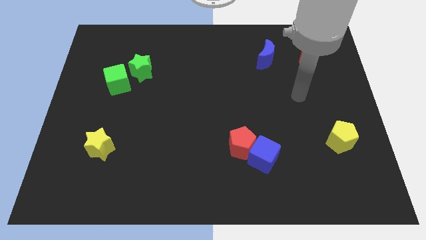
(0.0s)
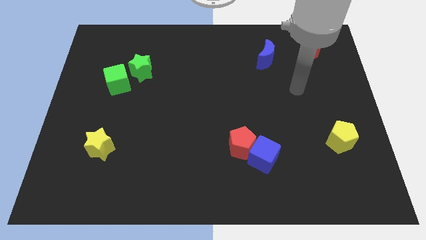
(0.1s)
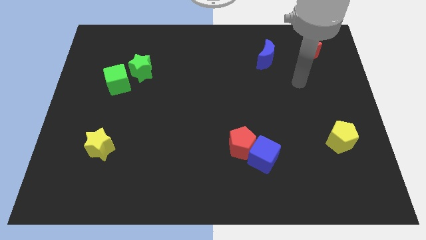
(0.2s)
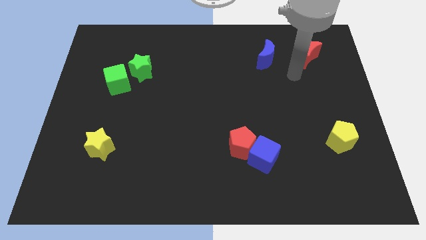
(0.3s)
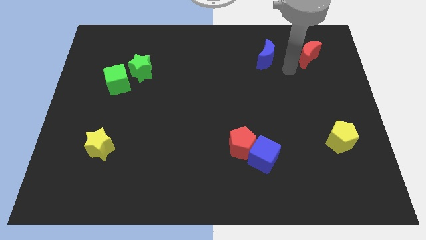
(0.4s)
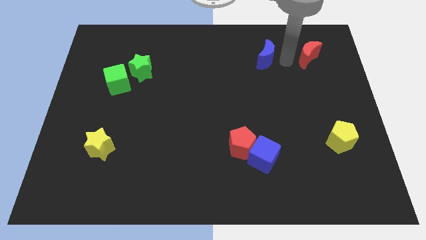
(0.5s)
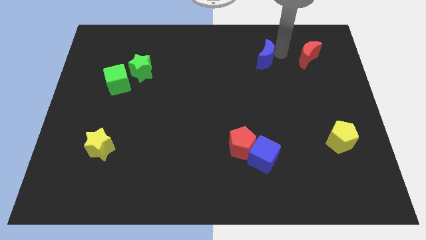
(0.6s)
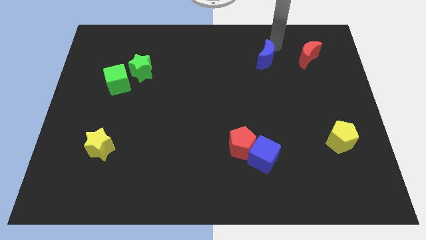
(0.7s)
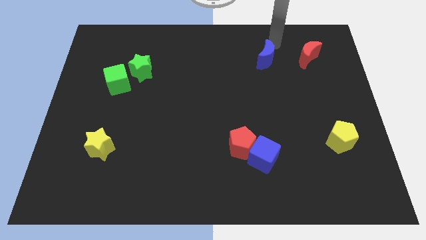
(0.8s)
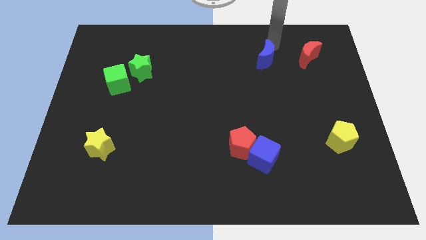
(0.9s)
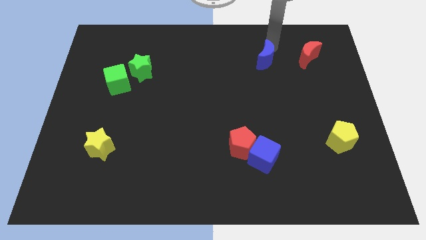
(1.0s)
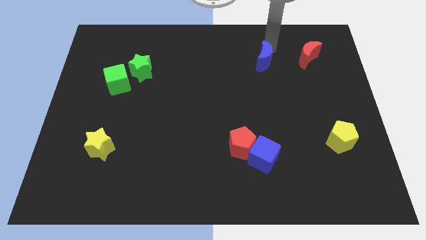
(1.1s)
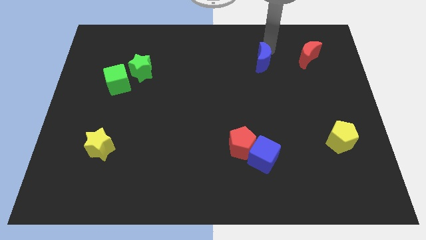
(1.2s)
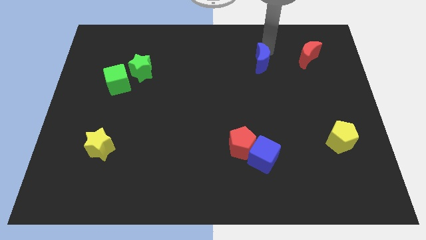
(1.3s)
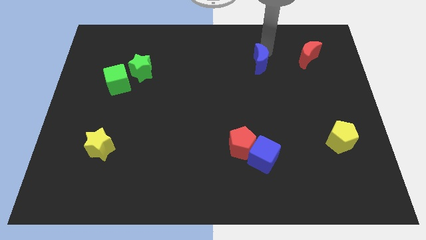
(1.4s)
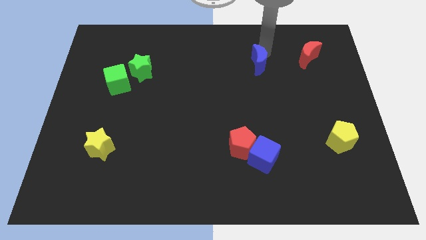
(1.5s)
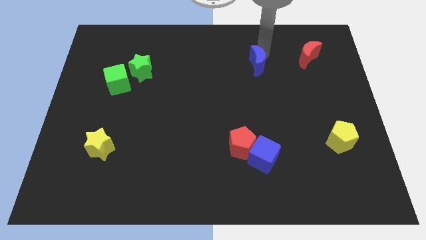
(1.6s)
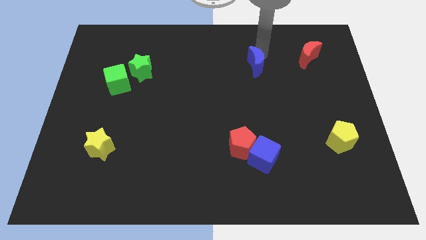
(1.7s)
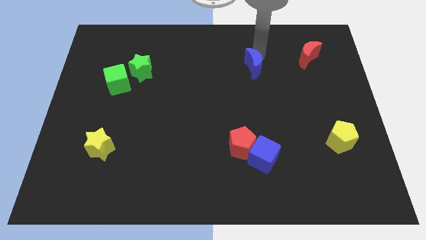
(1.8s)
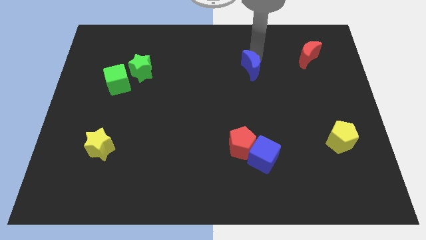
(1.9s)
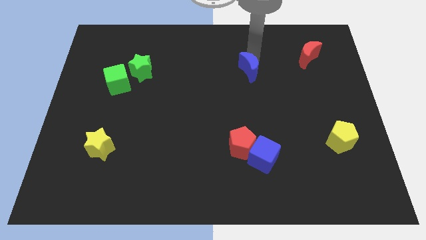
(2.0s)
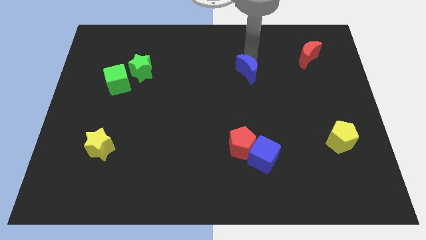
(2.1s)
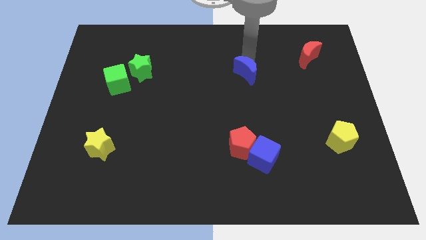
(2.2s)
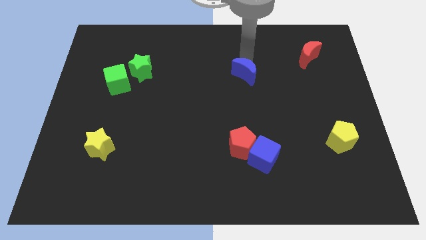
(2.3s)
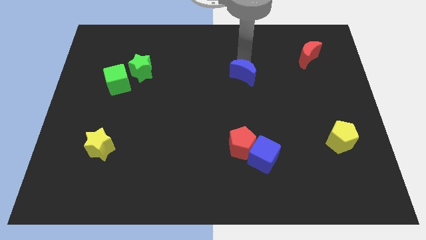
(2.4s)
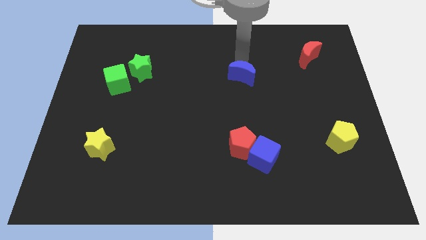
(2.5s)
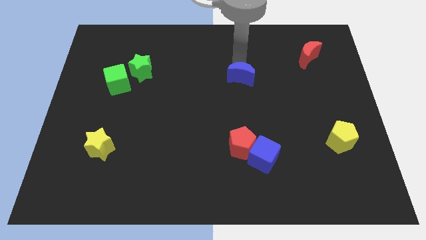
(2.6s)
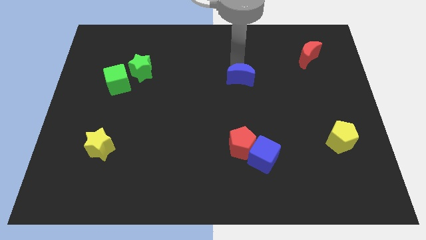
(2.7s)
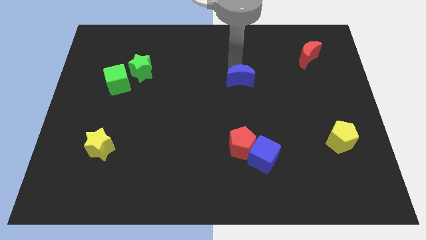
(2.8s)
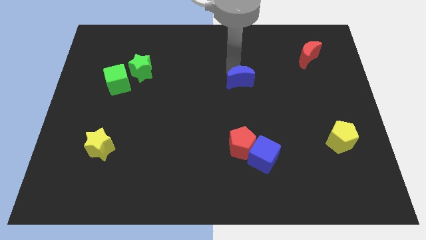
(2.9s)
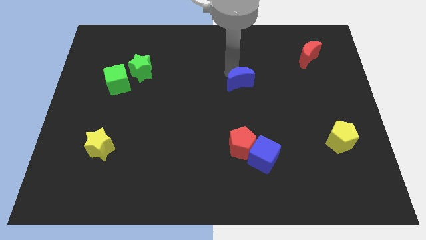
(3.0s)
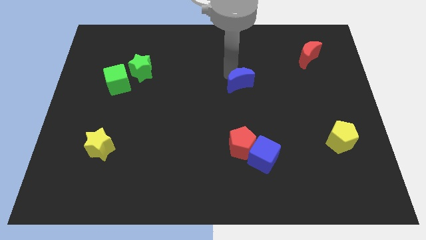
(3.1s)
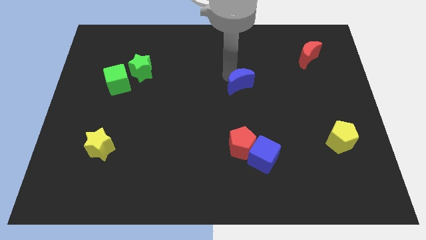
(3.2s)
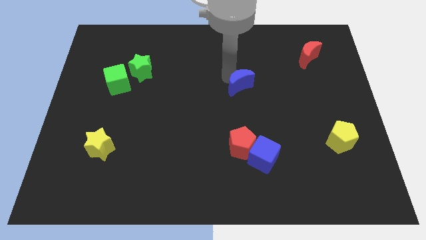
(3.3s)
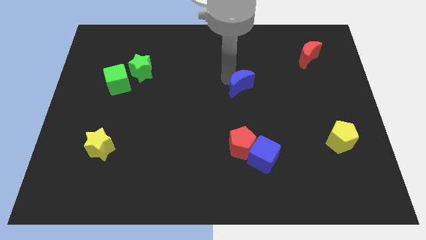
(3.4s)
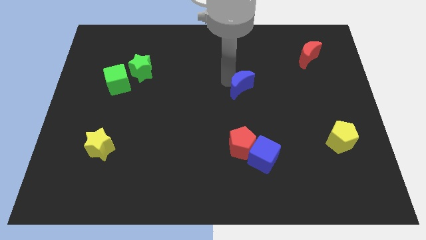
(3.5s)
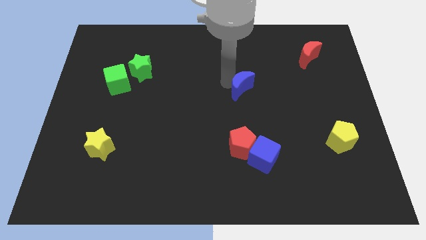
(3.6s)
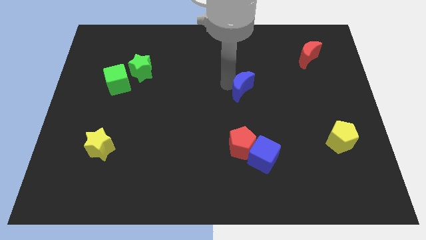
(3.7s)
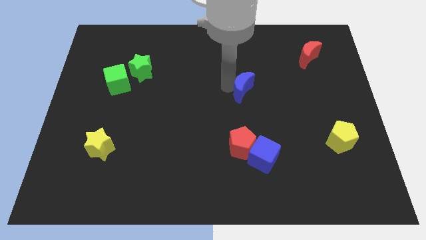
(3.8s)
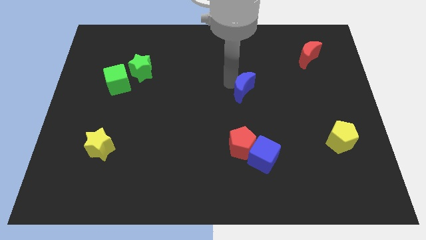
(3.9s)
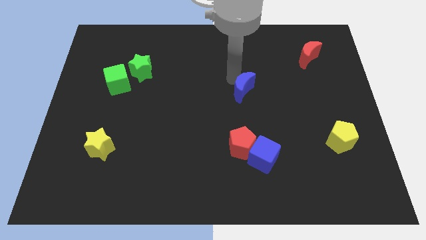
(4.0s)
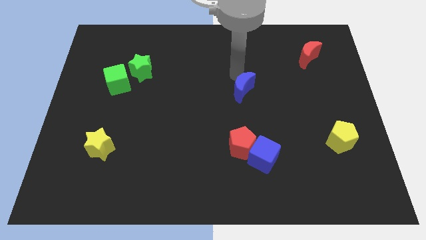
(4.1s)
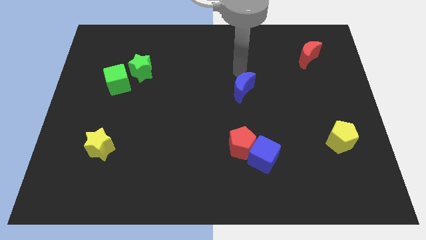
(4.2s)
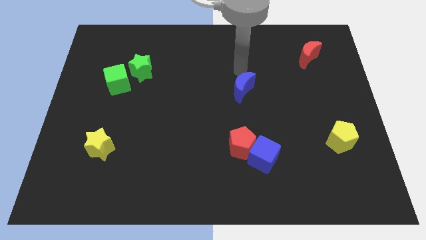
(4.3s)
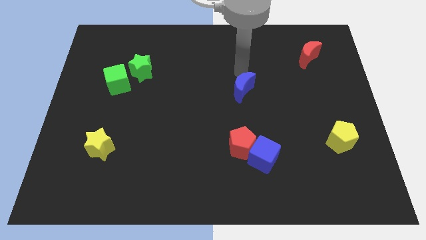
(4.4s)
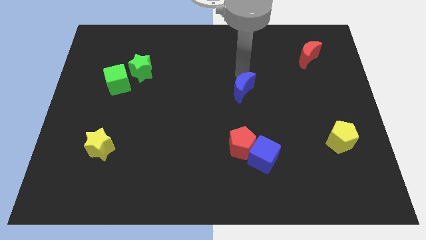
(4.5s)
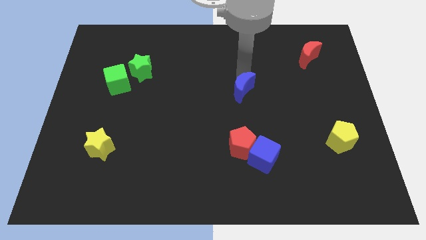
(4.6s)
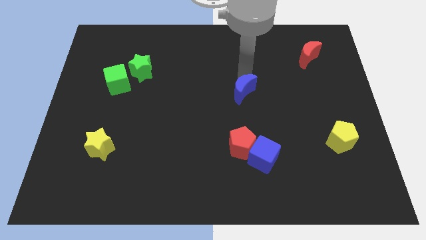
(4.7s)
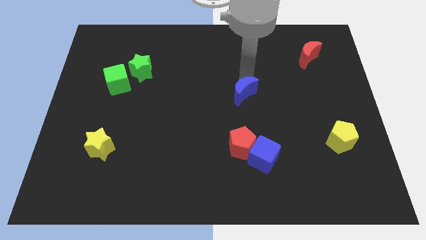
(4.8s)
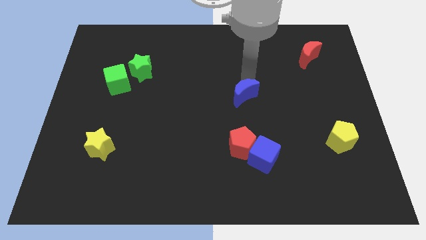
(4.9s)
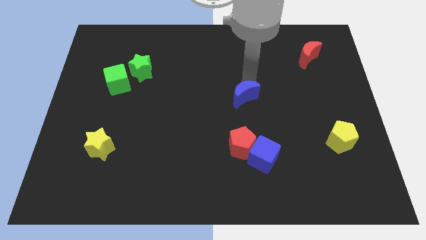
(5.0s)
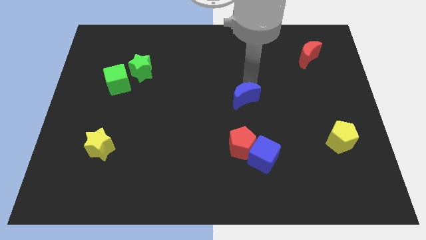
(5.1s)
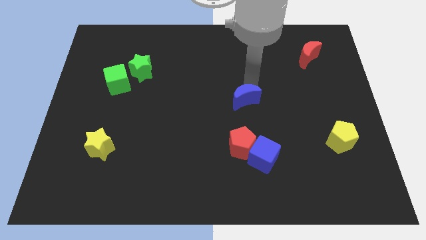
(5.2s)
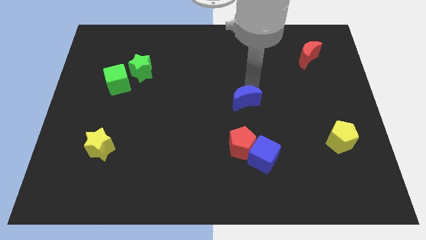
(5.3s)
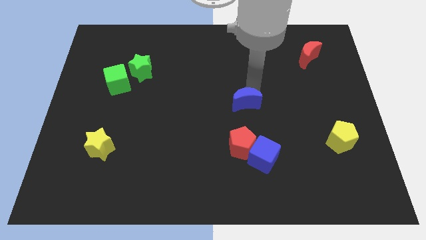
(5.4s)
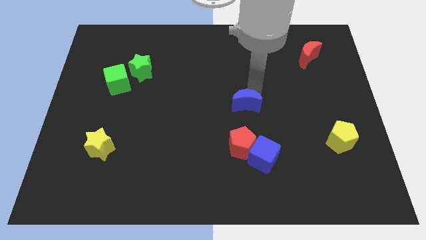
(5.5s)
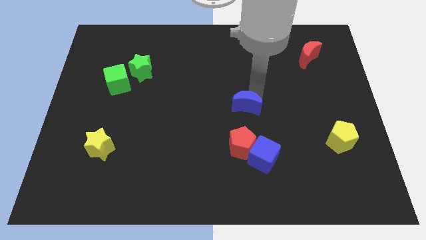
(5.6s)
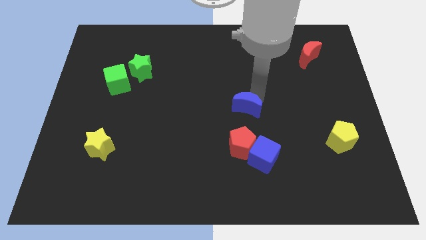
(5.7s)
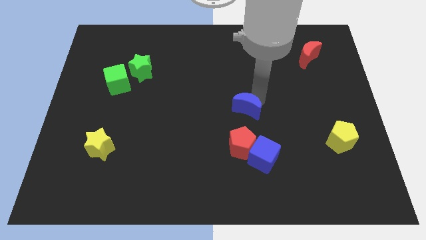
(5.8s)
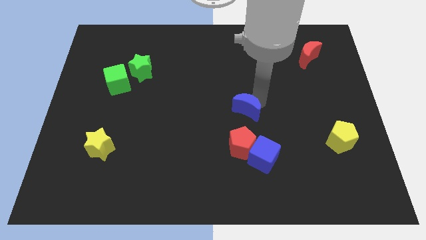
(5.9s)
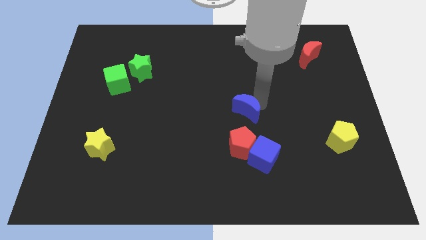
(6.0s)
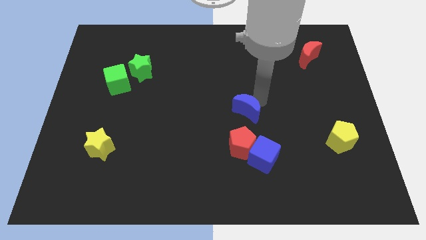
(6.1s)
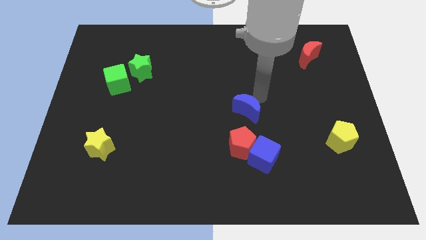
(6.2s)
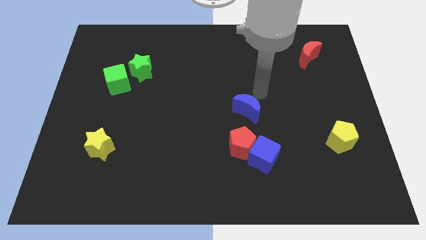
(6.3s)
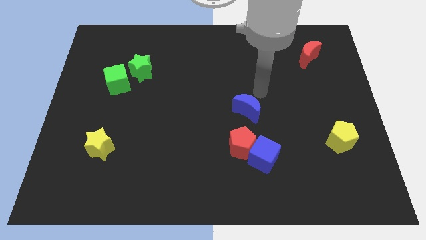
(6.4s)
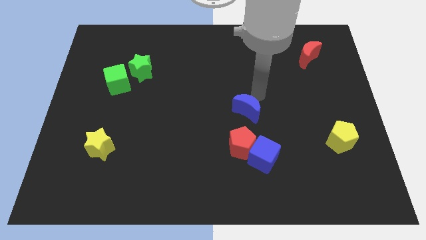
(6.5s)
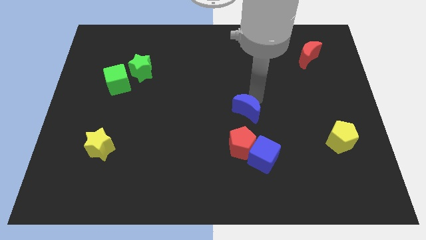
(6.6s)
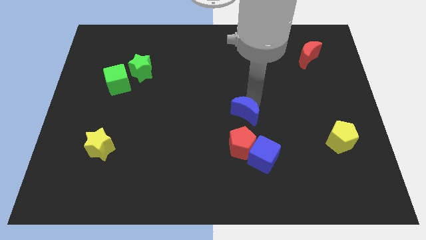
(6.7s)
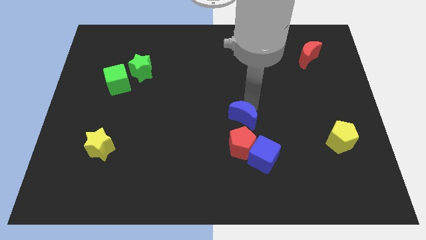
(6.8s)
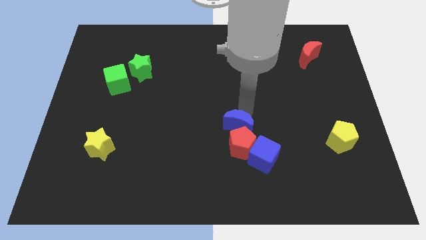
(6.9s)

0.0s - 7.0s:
move the blue moon towards the red pentagon
